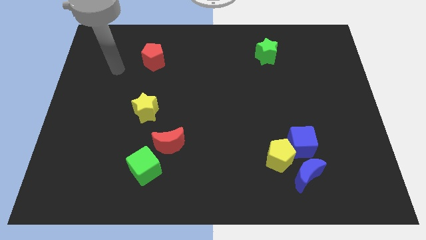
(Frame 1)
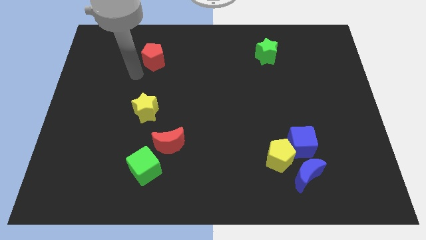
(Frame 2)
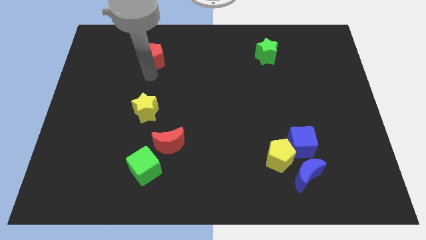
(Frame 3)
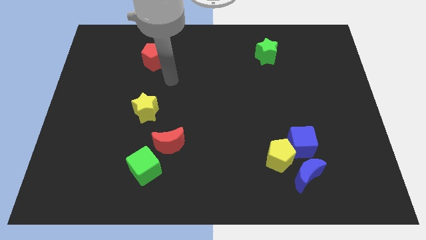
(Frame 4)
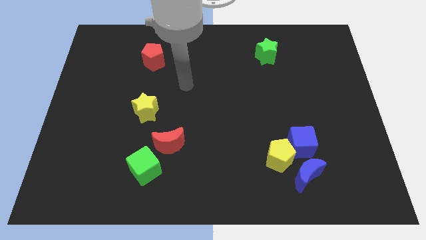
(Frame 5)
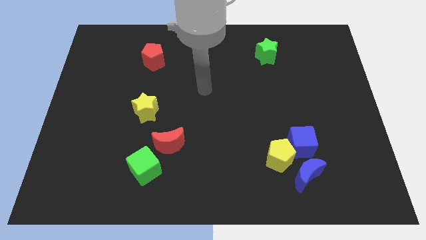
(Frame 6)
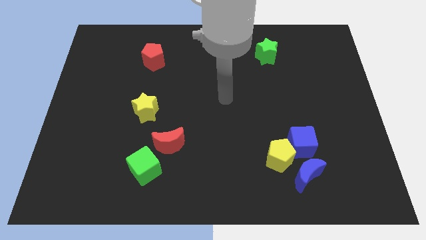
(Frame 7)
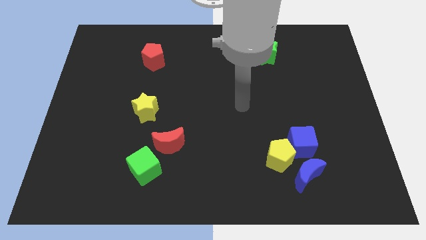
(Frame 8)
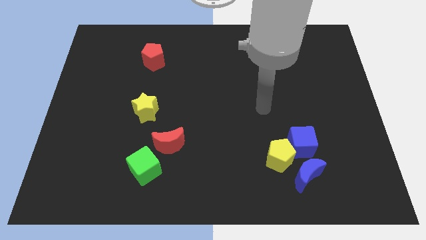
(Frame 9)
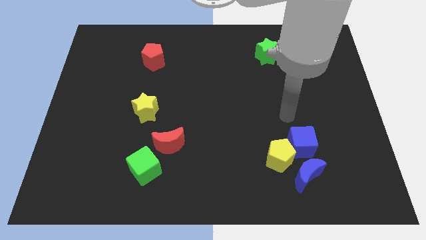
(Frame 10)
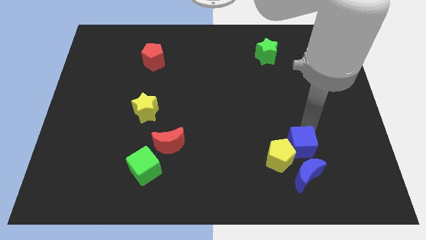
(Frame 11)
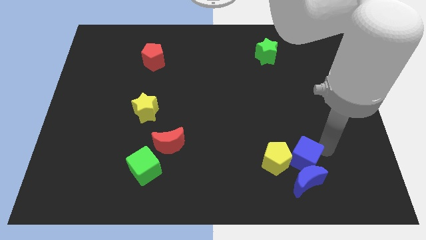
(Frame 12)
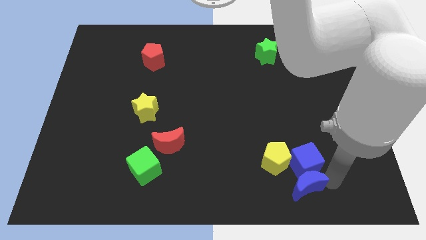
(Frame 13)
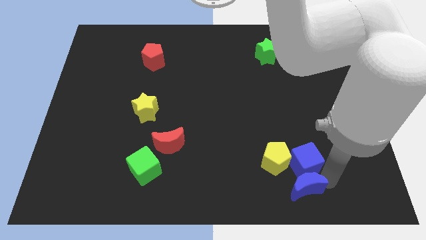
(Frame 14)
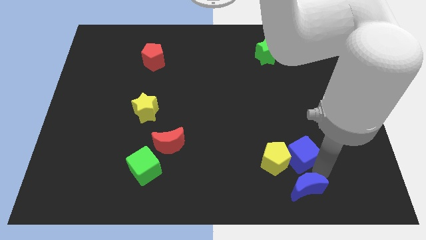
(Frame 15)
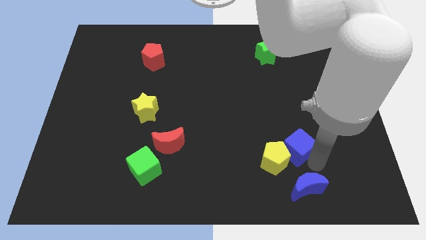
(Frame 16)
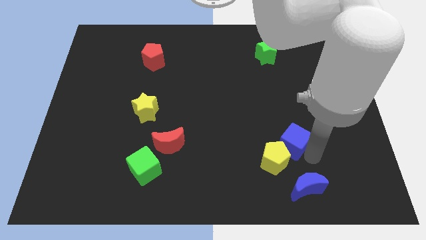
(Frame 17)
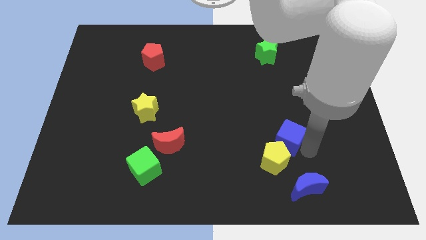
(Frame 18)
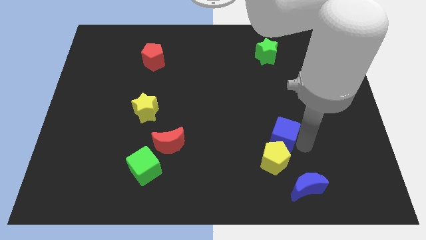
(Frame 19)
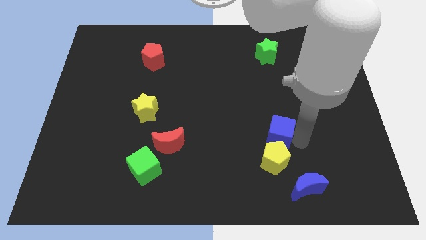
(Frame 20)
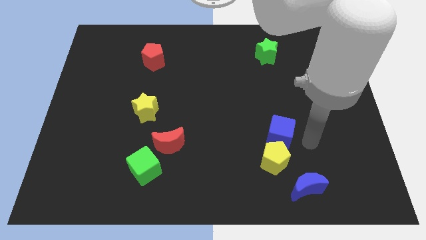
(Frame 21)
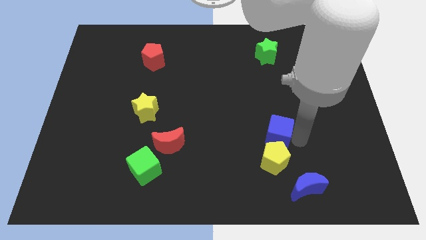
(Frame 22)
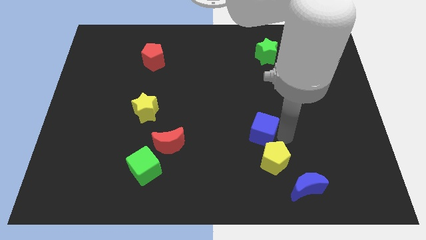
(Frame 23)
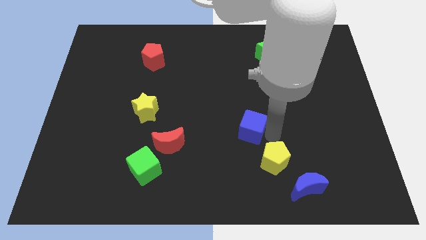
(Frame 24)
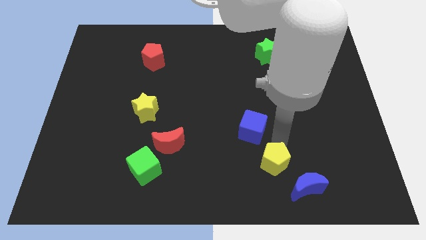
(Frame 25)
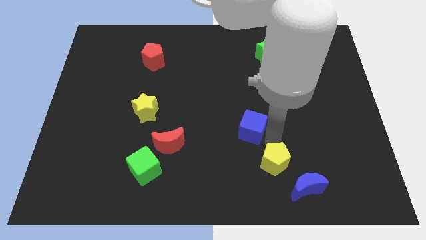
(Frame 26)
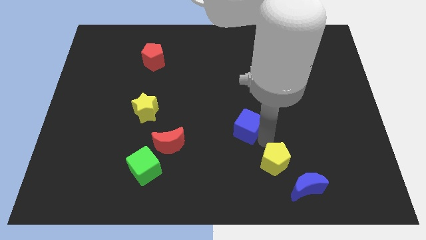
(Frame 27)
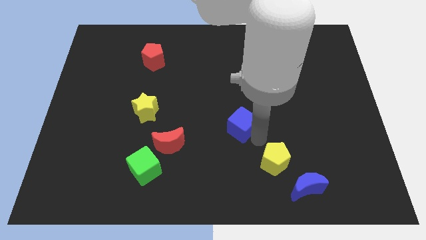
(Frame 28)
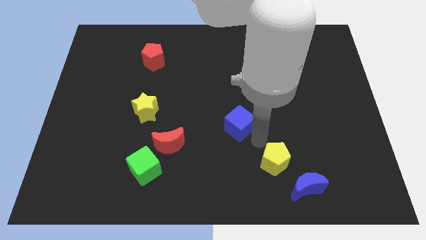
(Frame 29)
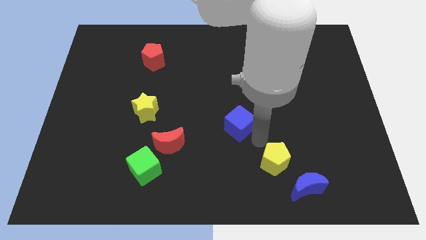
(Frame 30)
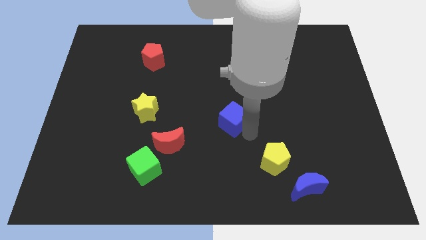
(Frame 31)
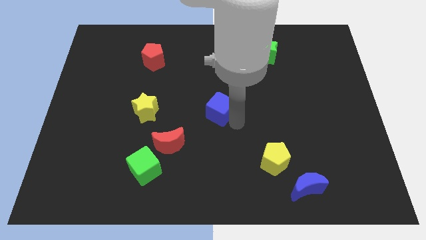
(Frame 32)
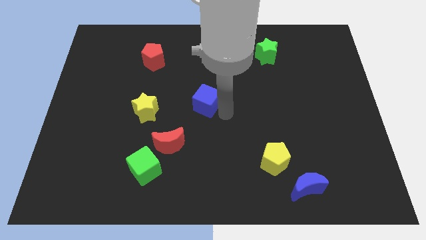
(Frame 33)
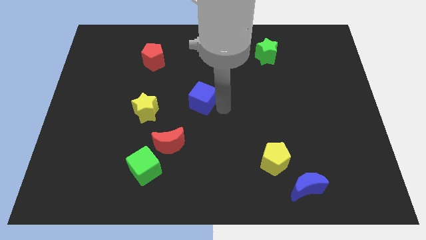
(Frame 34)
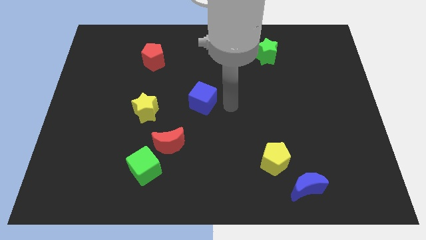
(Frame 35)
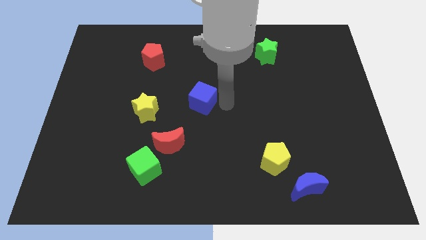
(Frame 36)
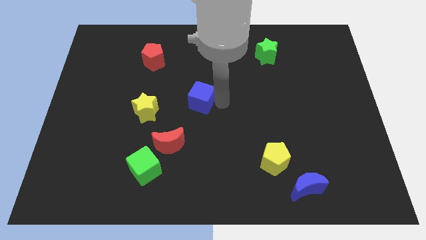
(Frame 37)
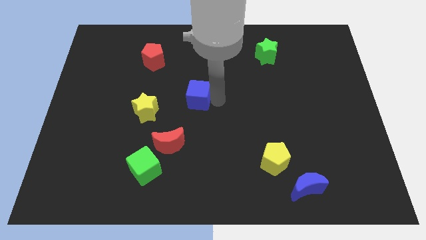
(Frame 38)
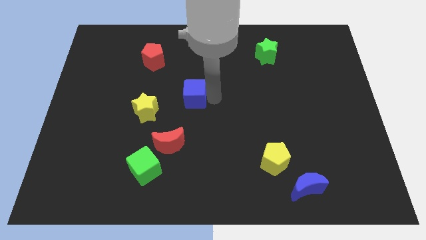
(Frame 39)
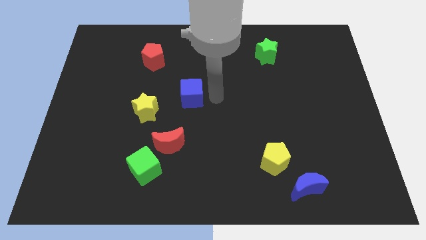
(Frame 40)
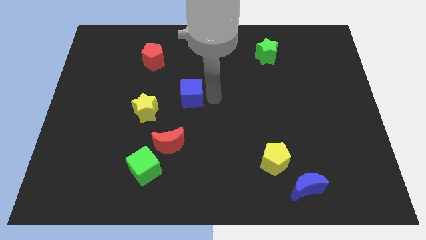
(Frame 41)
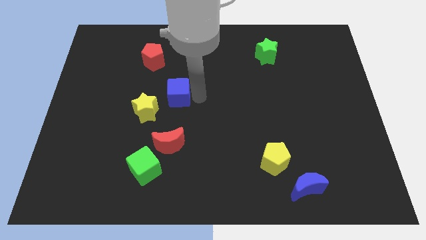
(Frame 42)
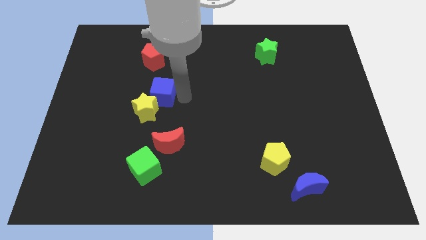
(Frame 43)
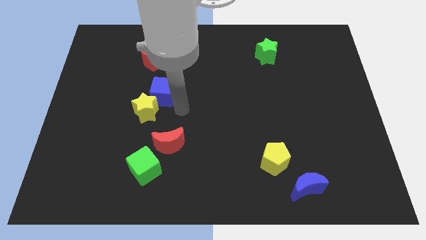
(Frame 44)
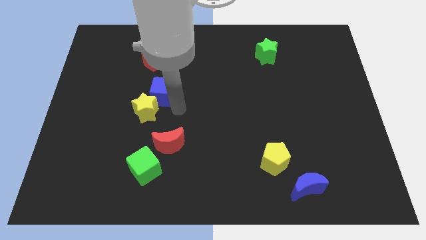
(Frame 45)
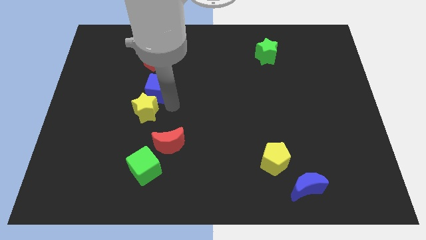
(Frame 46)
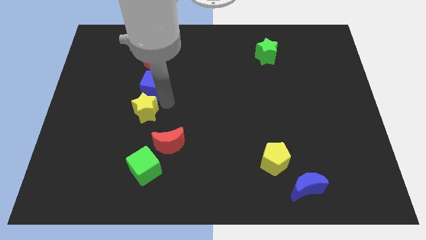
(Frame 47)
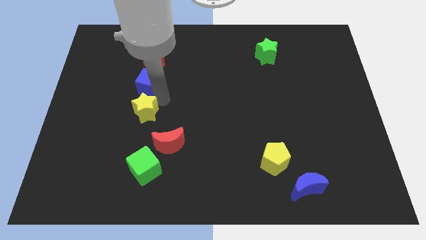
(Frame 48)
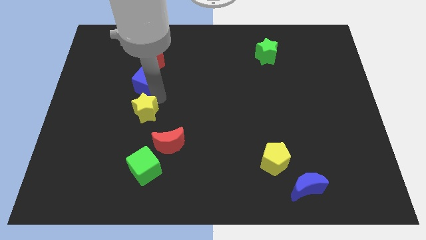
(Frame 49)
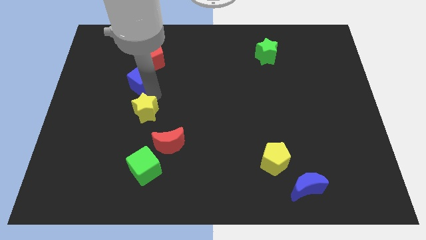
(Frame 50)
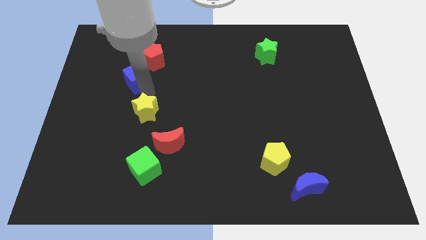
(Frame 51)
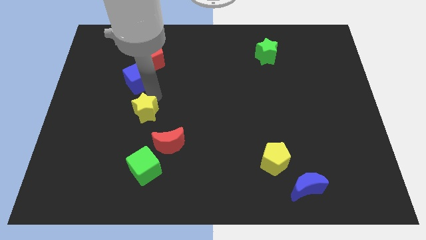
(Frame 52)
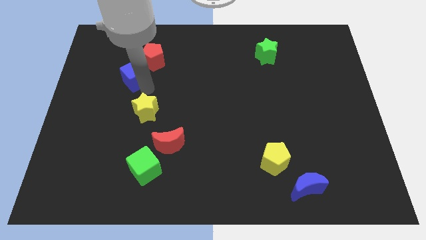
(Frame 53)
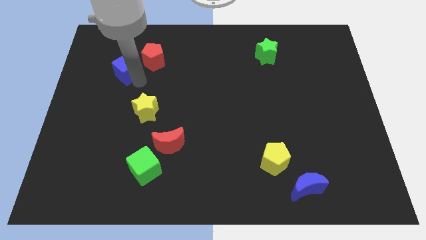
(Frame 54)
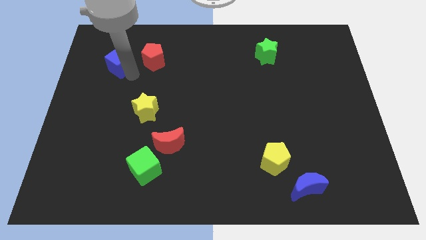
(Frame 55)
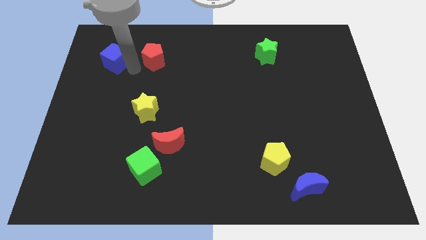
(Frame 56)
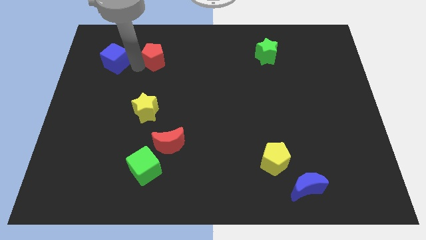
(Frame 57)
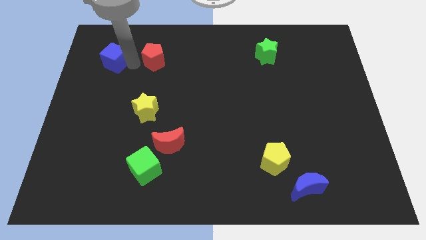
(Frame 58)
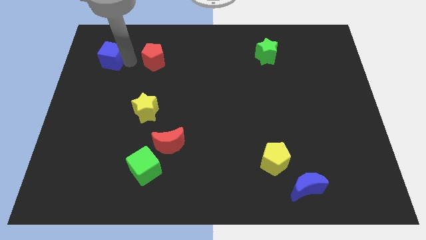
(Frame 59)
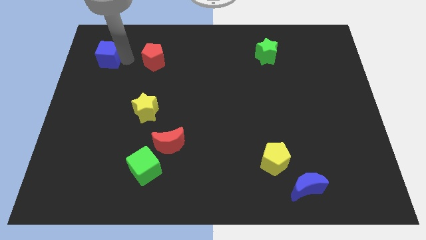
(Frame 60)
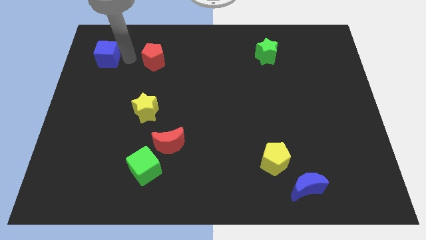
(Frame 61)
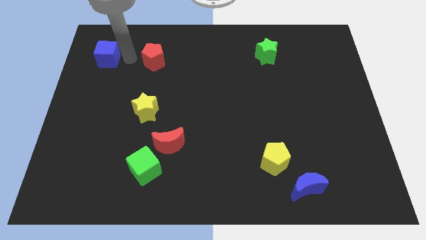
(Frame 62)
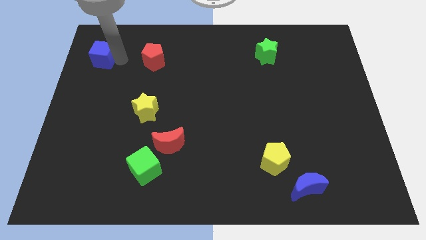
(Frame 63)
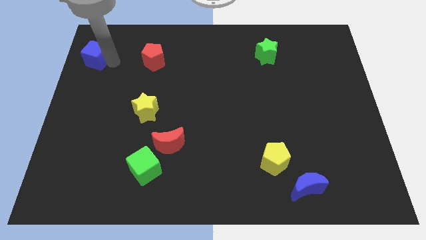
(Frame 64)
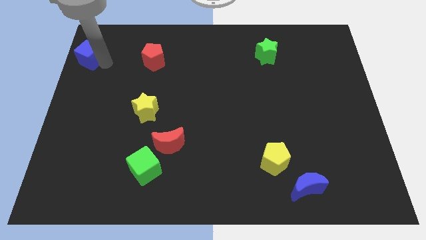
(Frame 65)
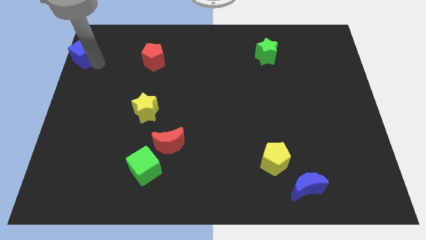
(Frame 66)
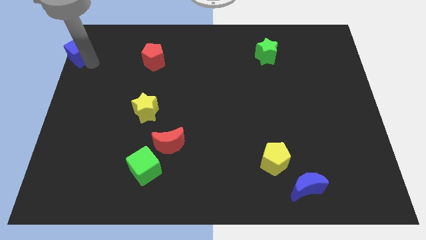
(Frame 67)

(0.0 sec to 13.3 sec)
move the blue cube to the top left corner

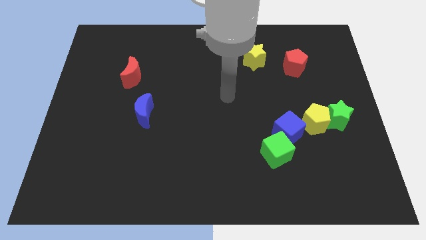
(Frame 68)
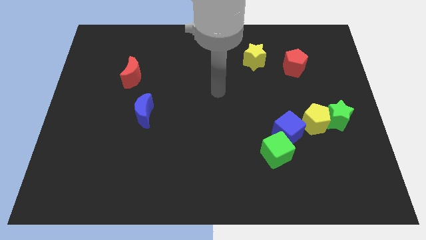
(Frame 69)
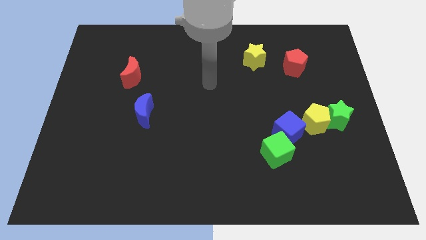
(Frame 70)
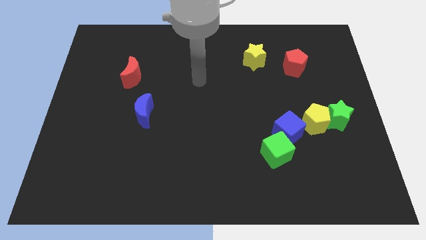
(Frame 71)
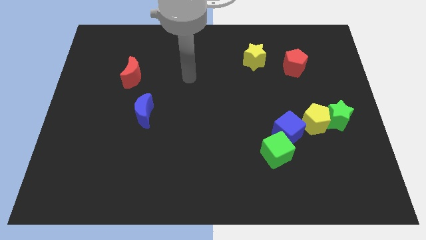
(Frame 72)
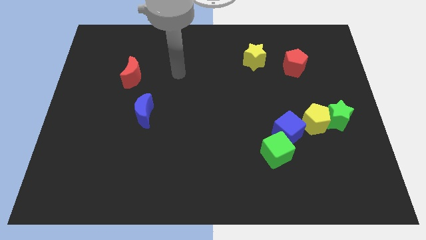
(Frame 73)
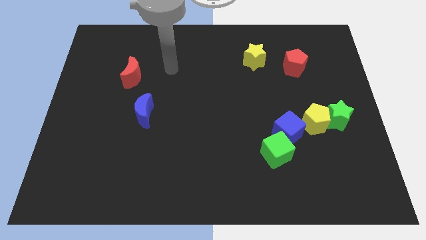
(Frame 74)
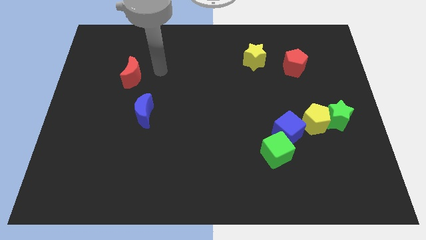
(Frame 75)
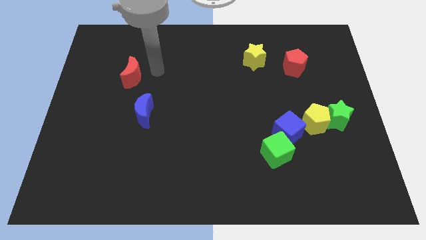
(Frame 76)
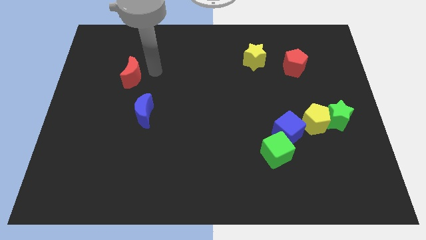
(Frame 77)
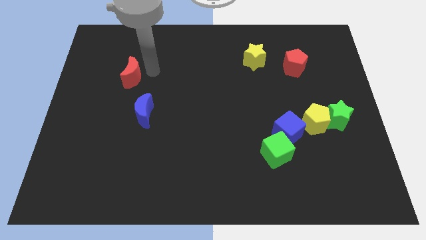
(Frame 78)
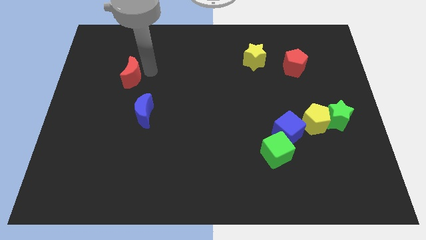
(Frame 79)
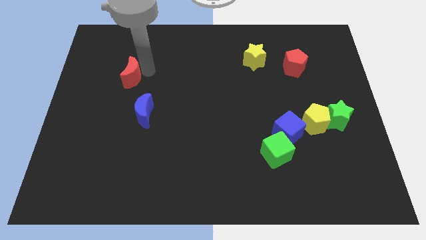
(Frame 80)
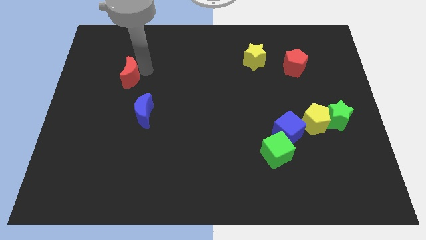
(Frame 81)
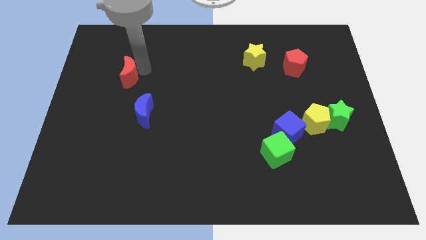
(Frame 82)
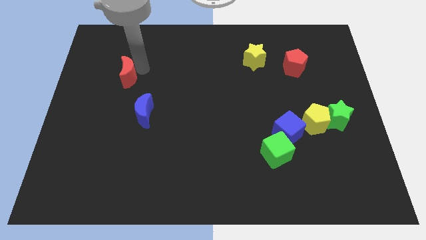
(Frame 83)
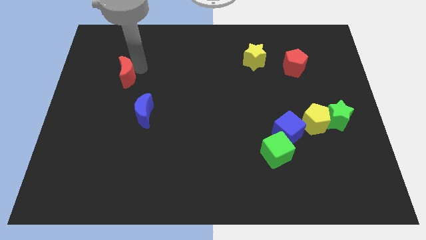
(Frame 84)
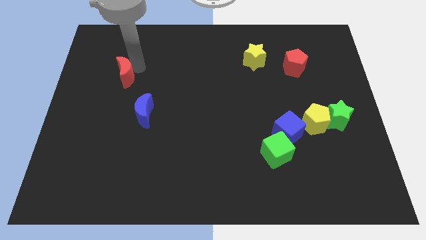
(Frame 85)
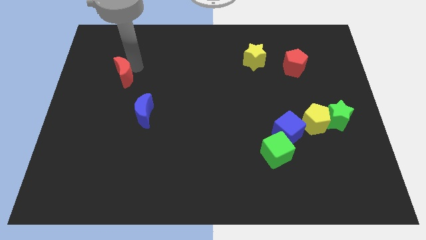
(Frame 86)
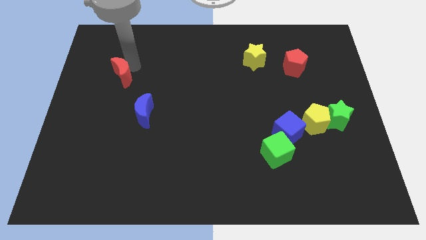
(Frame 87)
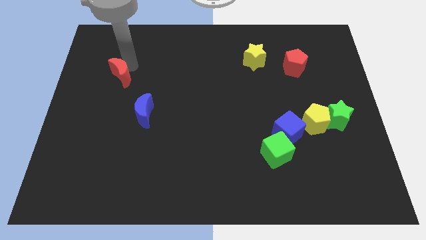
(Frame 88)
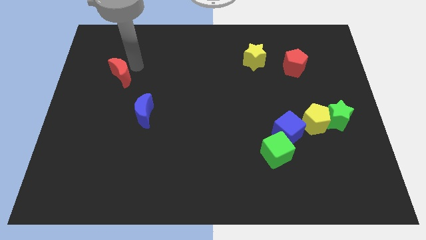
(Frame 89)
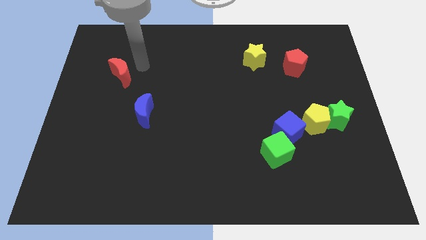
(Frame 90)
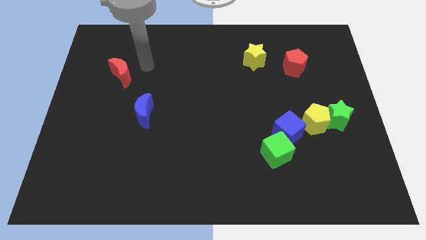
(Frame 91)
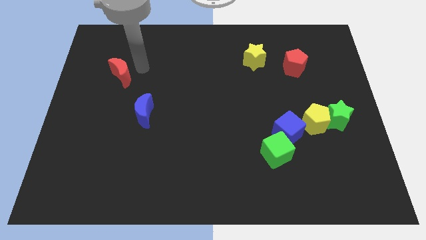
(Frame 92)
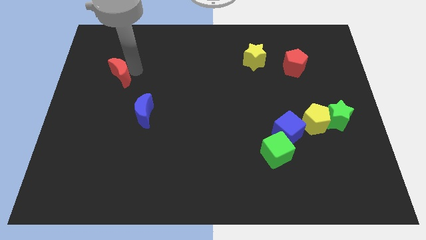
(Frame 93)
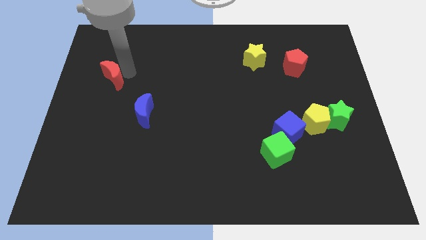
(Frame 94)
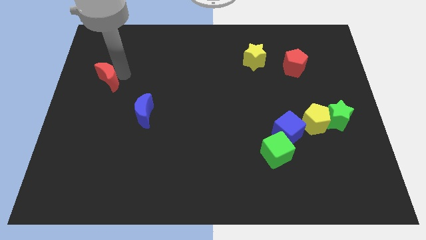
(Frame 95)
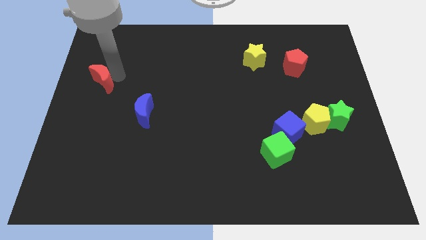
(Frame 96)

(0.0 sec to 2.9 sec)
put the red moon to the left side of the board
